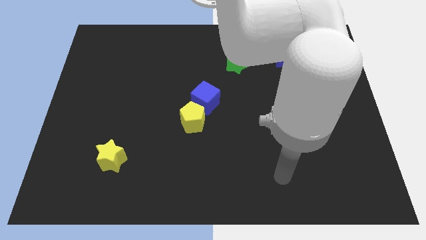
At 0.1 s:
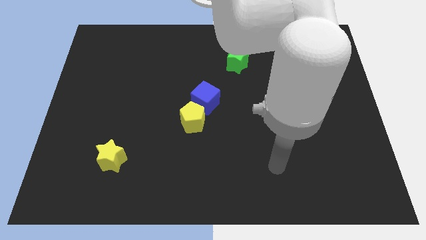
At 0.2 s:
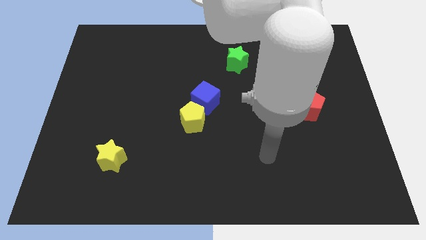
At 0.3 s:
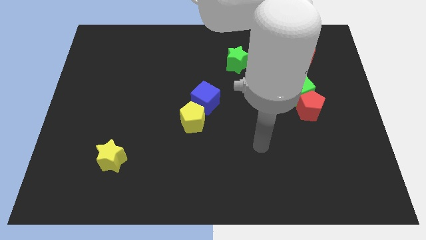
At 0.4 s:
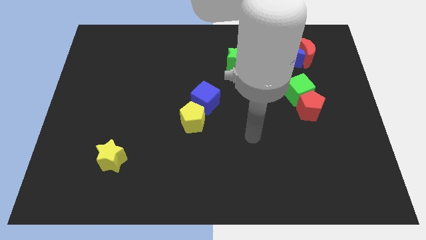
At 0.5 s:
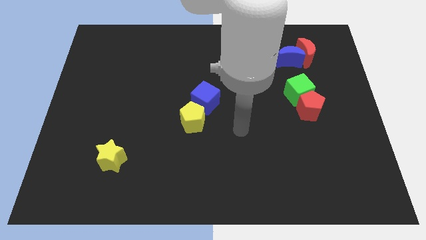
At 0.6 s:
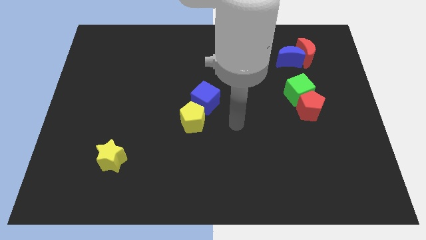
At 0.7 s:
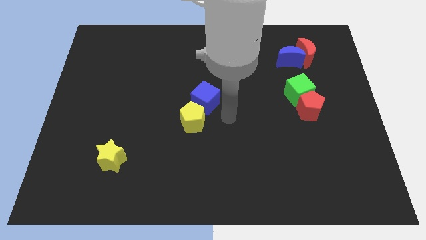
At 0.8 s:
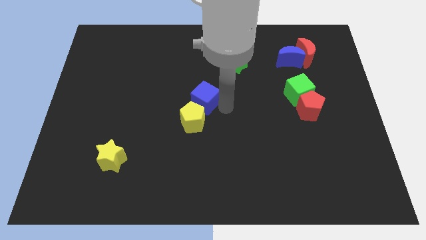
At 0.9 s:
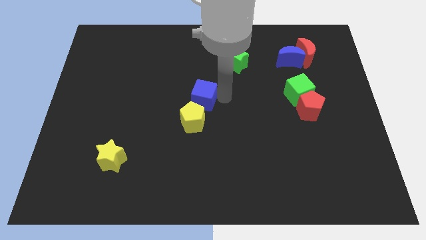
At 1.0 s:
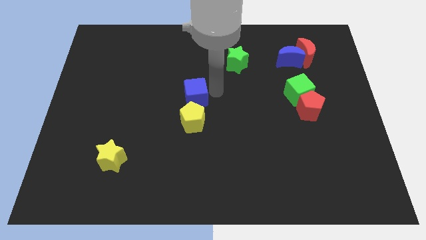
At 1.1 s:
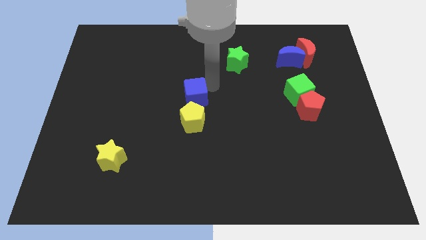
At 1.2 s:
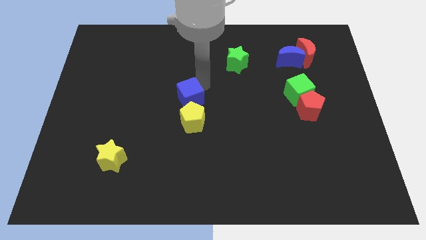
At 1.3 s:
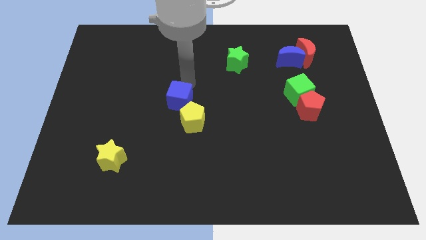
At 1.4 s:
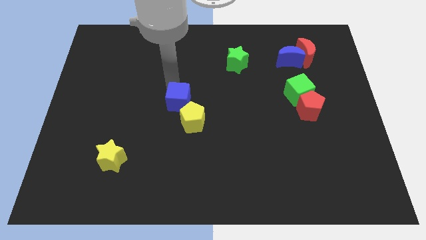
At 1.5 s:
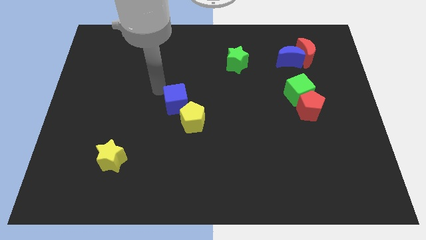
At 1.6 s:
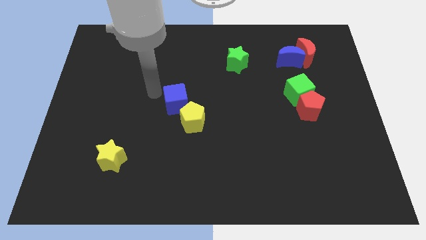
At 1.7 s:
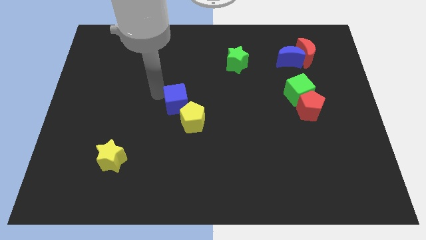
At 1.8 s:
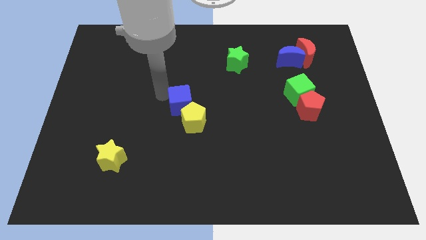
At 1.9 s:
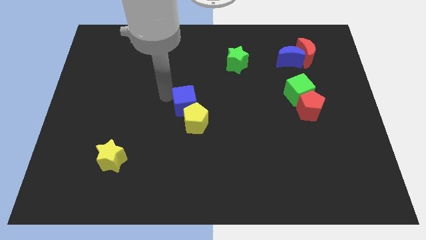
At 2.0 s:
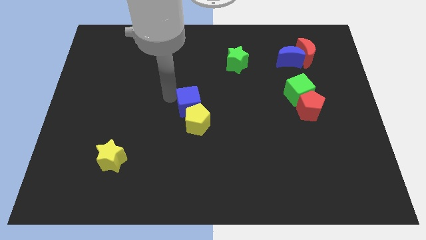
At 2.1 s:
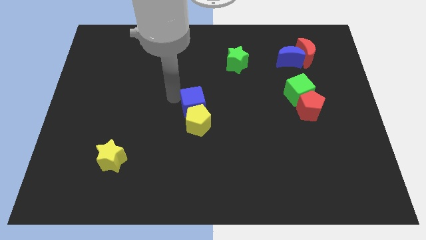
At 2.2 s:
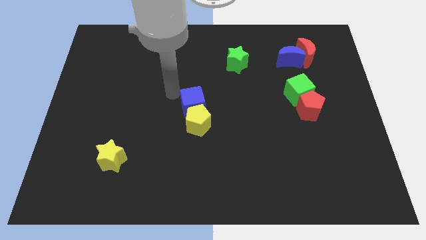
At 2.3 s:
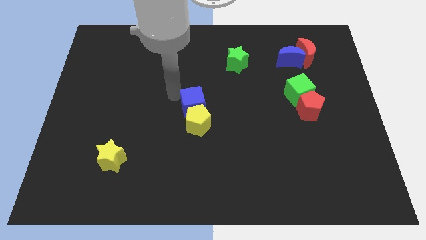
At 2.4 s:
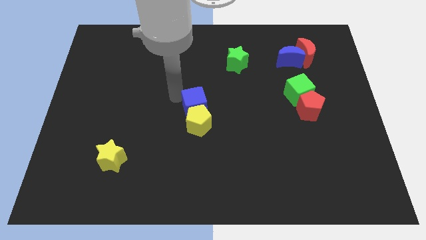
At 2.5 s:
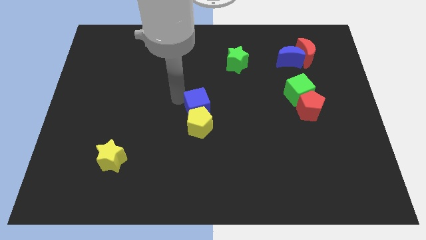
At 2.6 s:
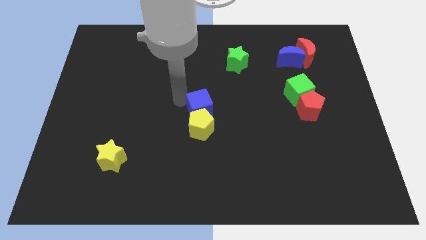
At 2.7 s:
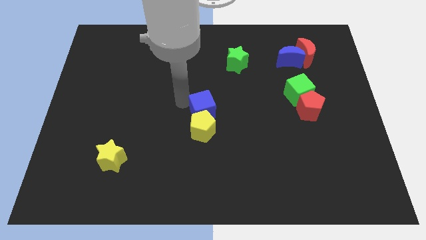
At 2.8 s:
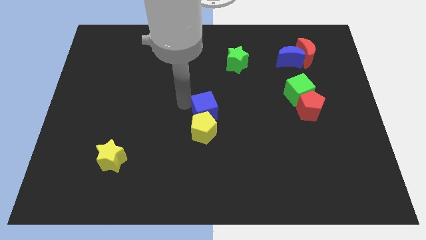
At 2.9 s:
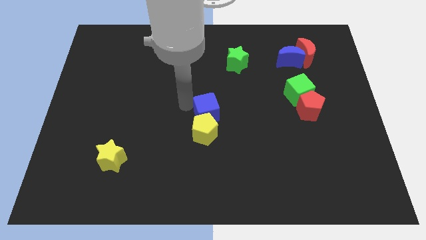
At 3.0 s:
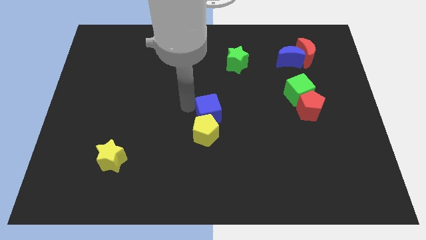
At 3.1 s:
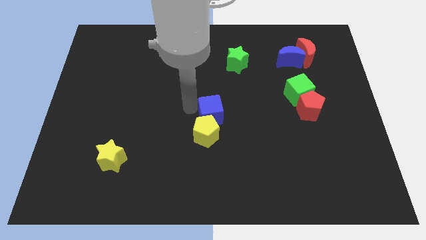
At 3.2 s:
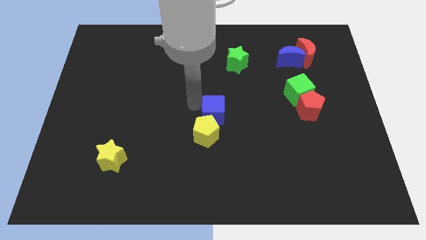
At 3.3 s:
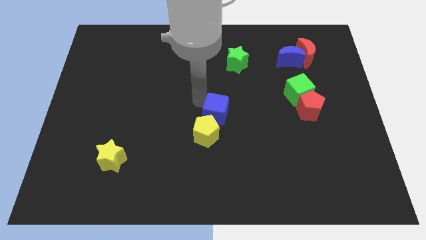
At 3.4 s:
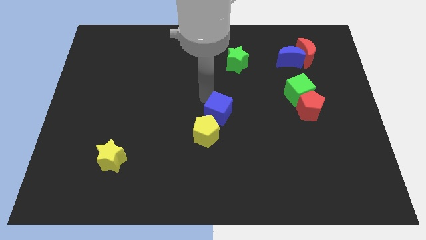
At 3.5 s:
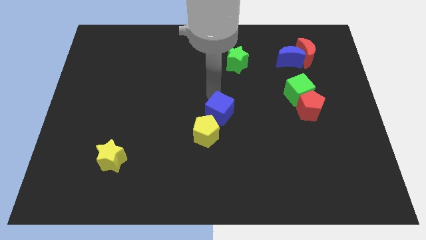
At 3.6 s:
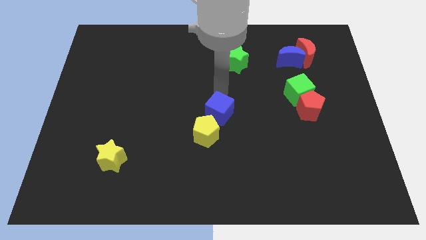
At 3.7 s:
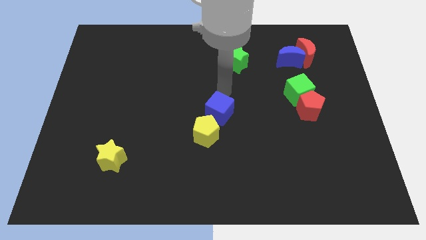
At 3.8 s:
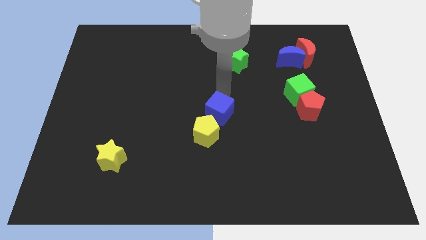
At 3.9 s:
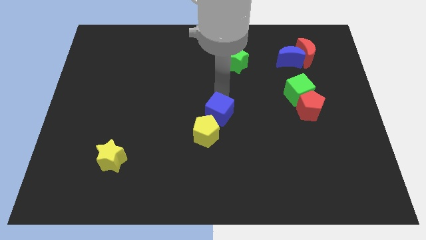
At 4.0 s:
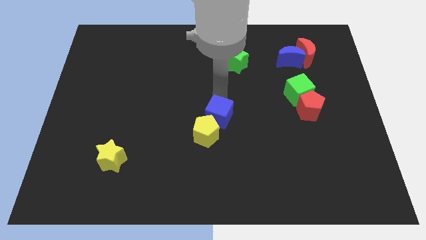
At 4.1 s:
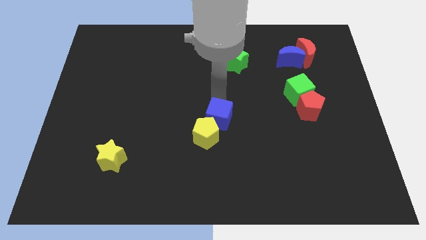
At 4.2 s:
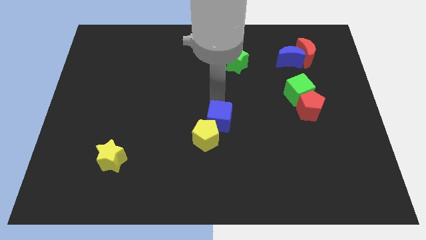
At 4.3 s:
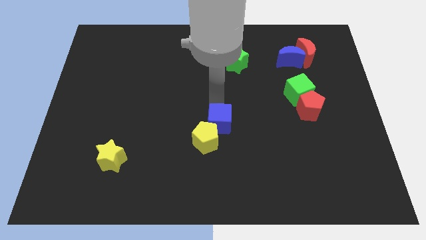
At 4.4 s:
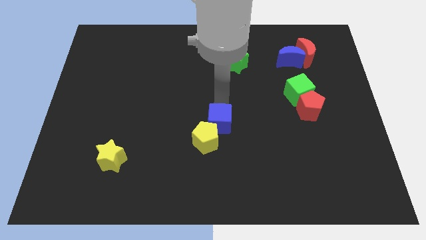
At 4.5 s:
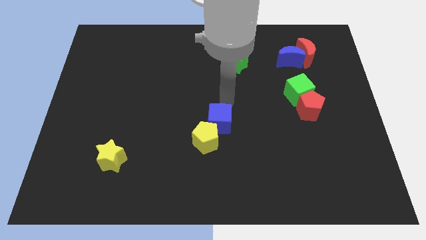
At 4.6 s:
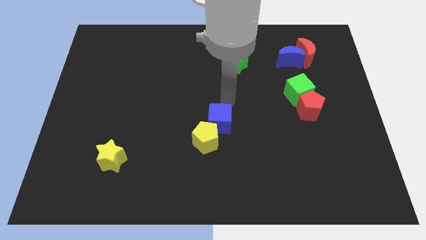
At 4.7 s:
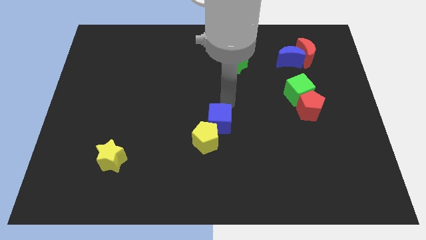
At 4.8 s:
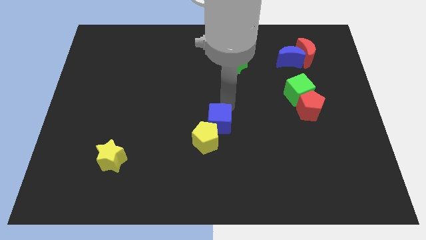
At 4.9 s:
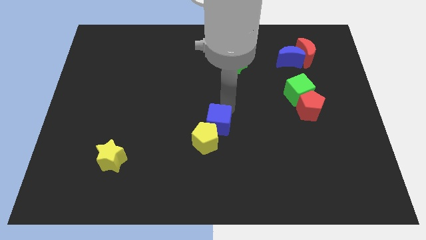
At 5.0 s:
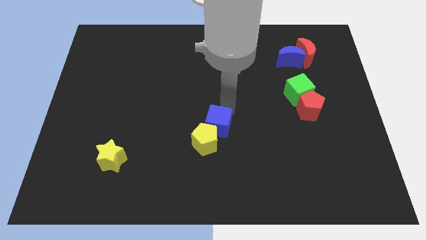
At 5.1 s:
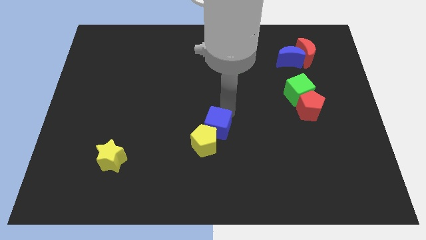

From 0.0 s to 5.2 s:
move the blue cube downwards a bit

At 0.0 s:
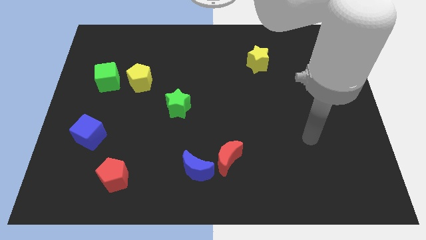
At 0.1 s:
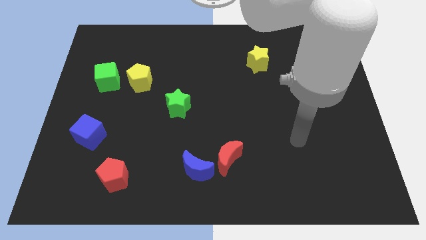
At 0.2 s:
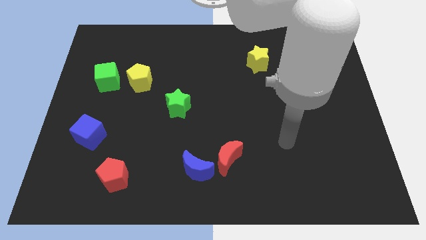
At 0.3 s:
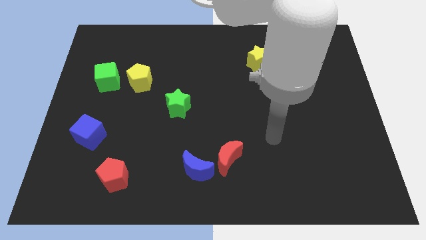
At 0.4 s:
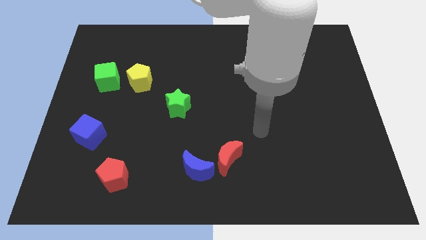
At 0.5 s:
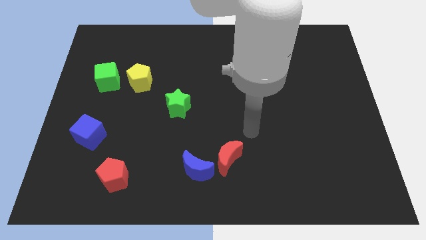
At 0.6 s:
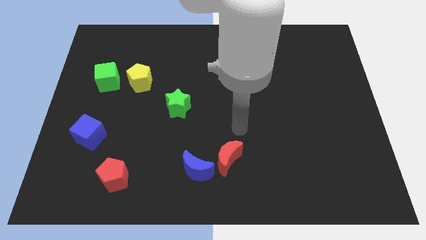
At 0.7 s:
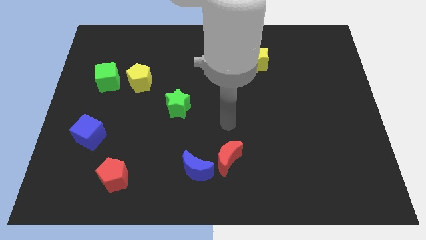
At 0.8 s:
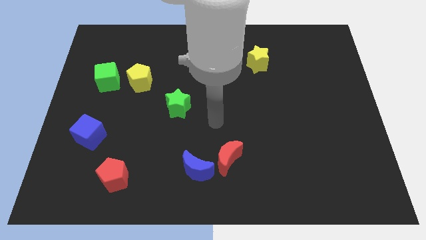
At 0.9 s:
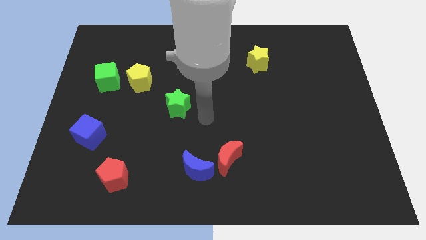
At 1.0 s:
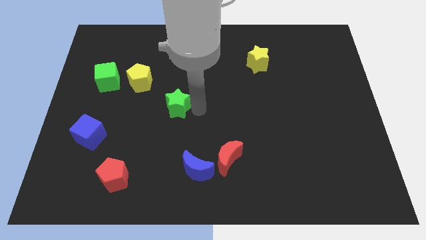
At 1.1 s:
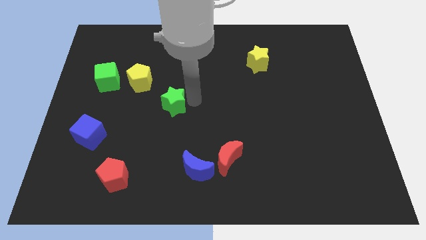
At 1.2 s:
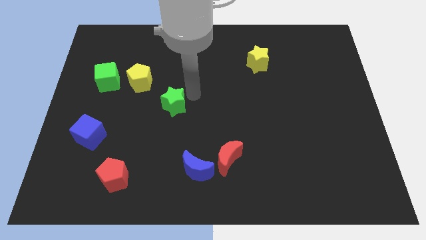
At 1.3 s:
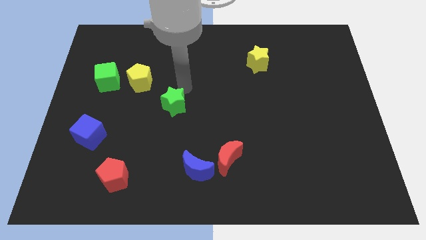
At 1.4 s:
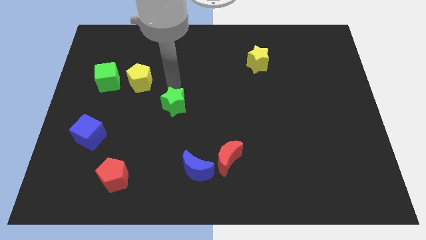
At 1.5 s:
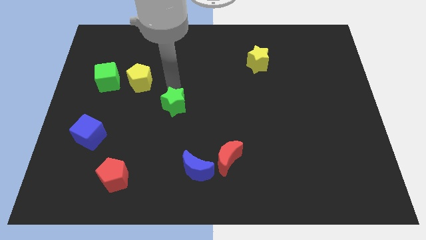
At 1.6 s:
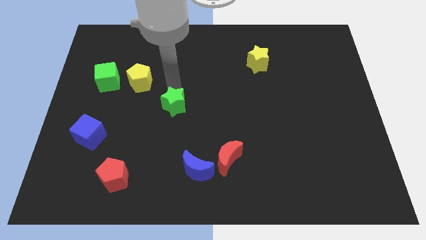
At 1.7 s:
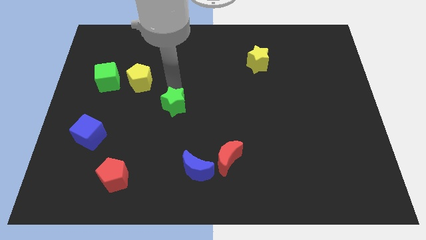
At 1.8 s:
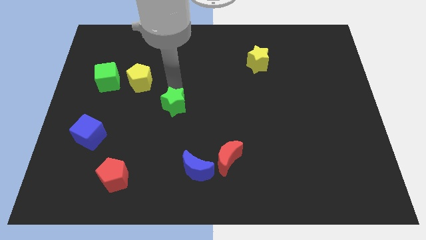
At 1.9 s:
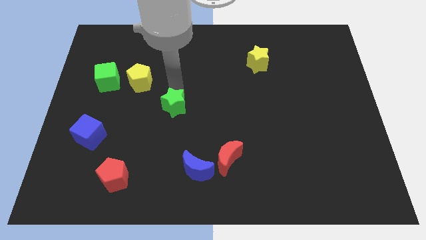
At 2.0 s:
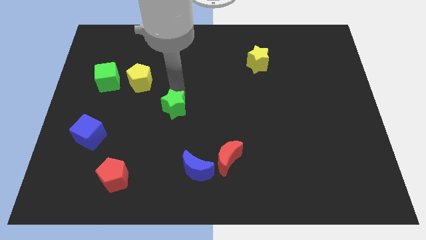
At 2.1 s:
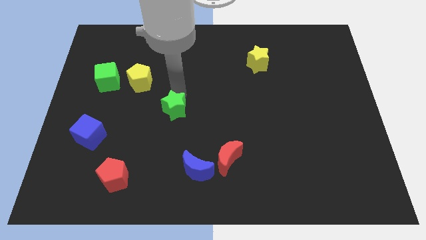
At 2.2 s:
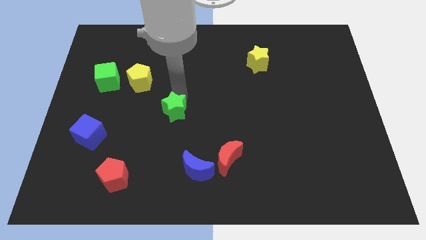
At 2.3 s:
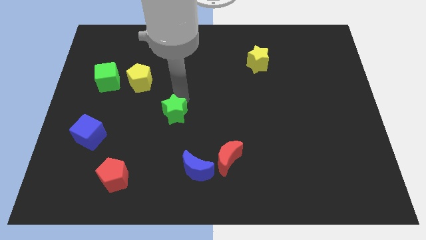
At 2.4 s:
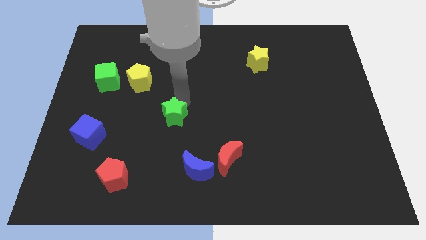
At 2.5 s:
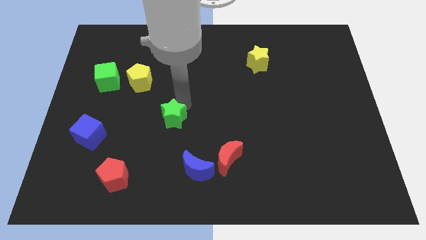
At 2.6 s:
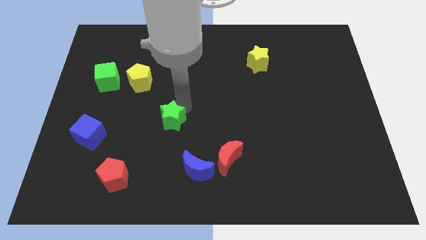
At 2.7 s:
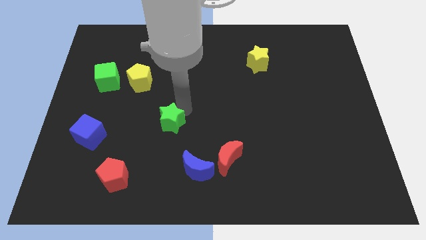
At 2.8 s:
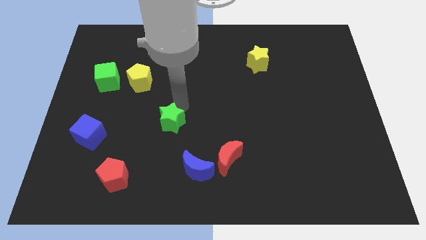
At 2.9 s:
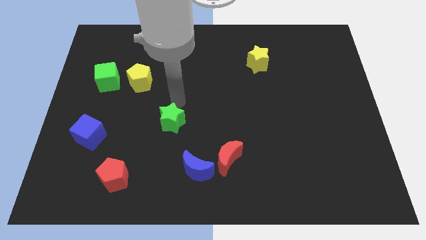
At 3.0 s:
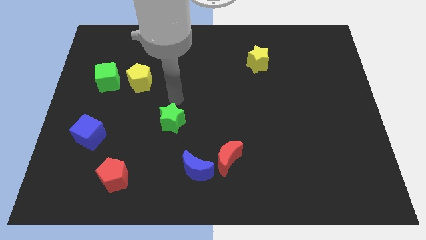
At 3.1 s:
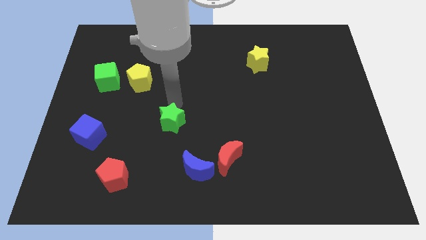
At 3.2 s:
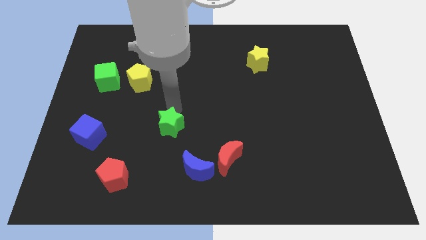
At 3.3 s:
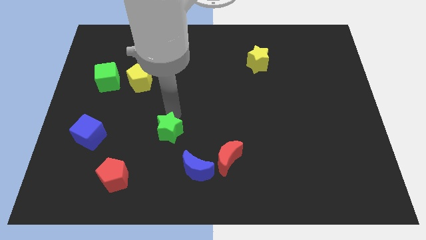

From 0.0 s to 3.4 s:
push the green star down a bit
